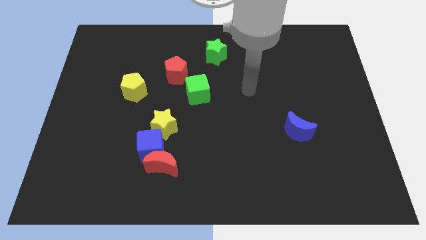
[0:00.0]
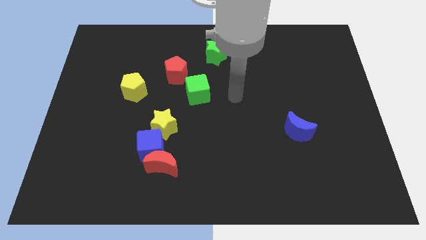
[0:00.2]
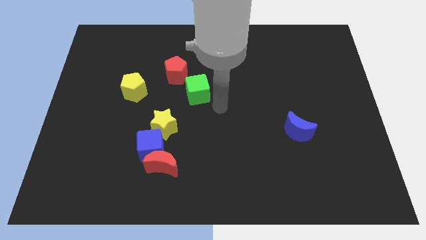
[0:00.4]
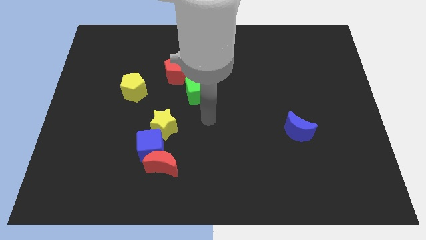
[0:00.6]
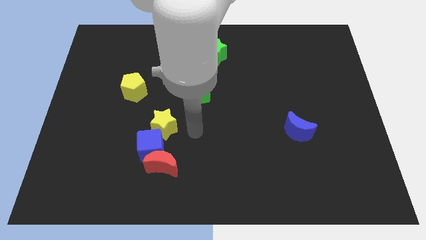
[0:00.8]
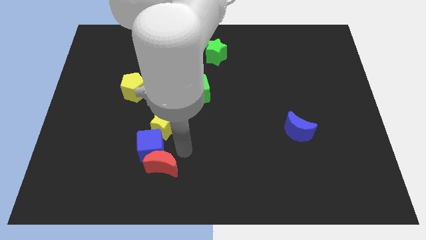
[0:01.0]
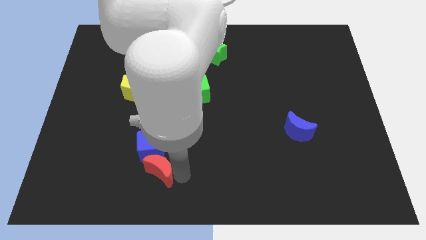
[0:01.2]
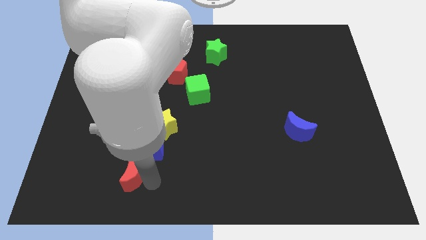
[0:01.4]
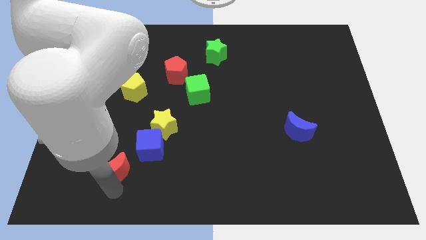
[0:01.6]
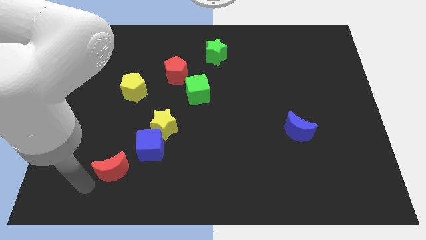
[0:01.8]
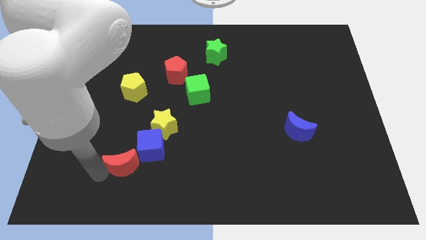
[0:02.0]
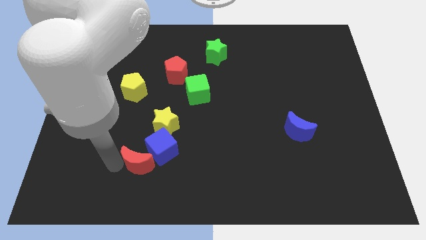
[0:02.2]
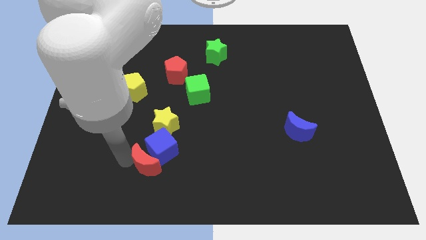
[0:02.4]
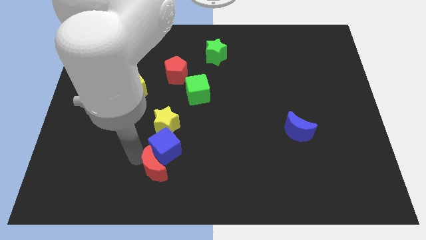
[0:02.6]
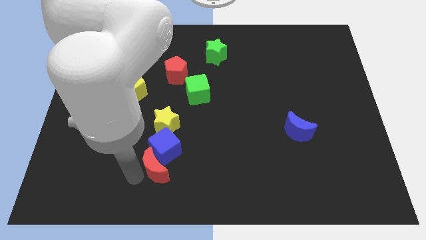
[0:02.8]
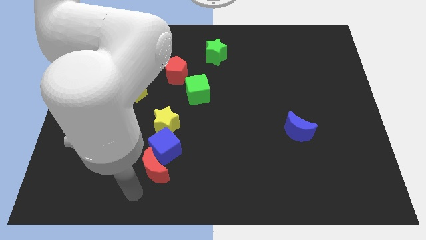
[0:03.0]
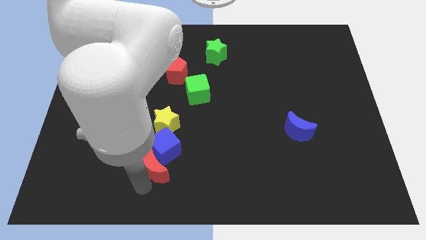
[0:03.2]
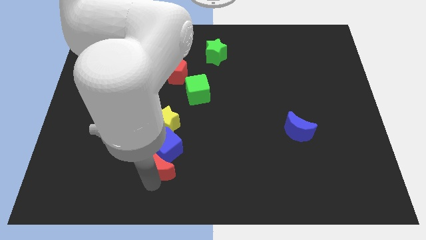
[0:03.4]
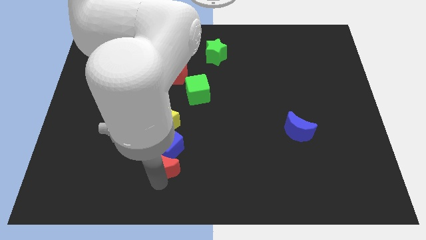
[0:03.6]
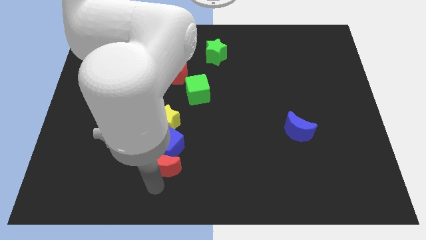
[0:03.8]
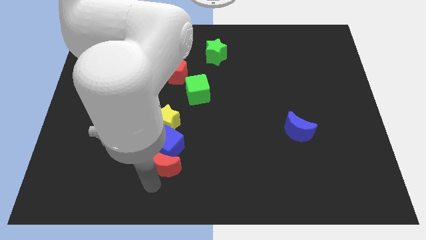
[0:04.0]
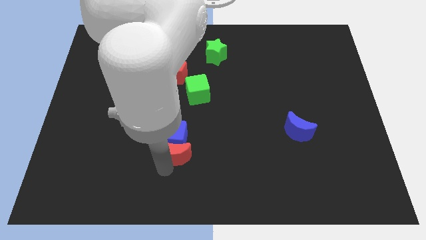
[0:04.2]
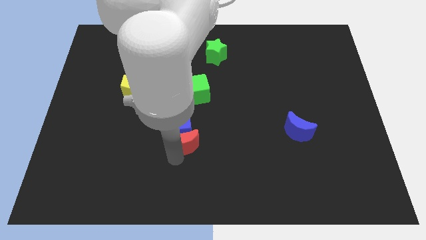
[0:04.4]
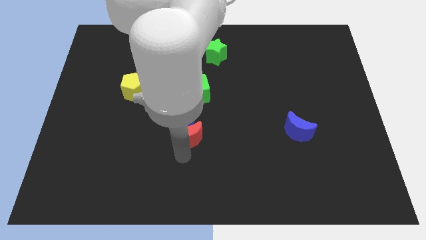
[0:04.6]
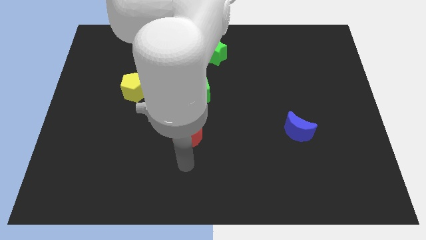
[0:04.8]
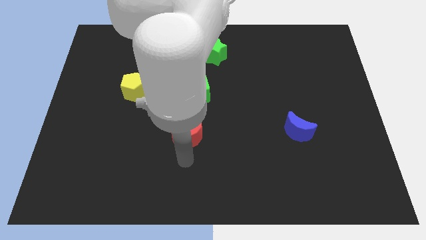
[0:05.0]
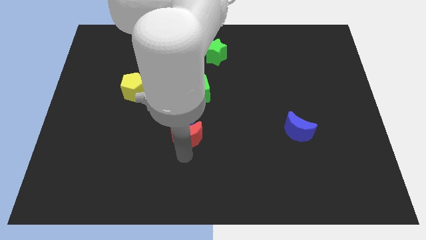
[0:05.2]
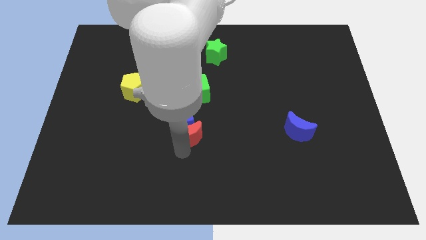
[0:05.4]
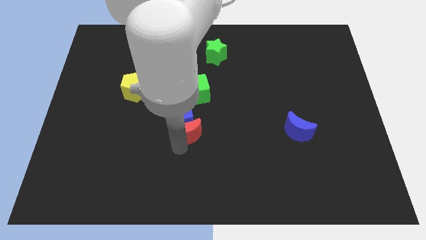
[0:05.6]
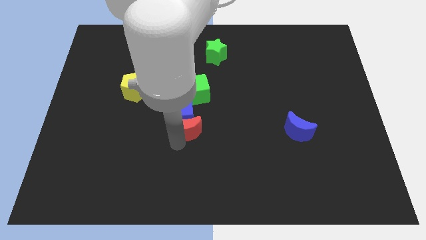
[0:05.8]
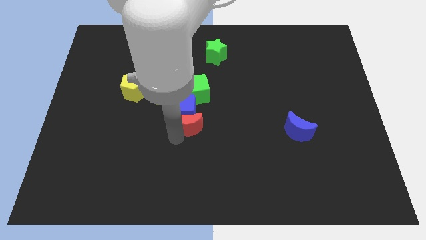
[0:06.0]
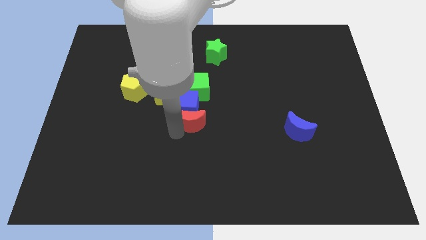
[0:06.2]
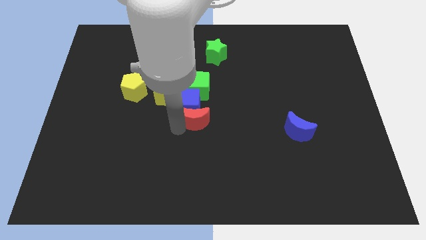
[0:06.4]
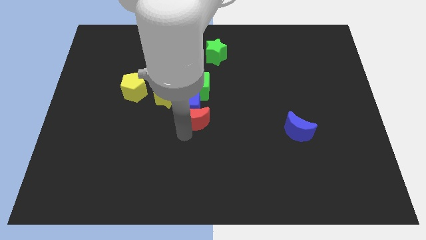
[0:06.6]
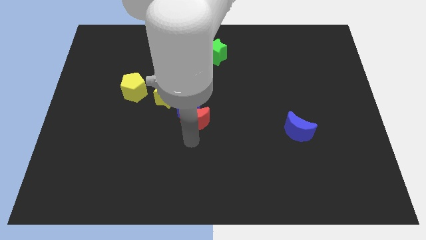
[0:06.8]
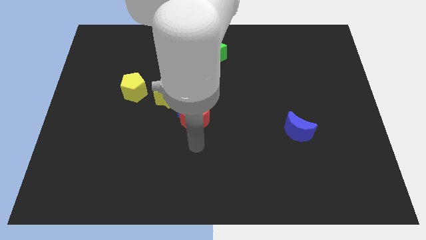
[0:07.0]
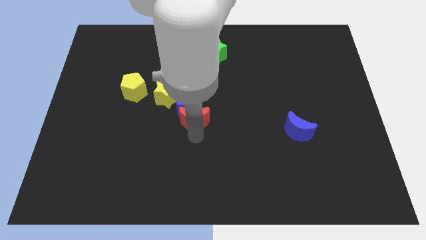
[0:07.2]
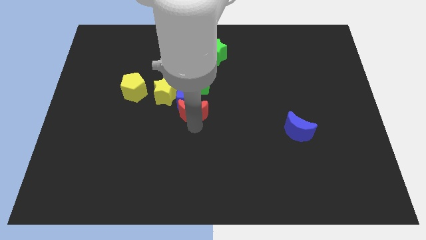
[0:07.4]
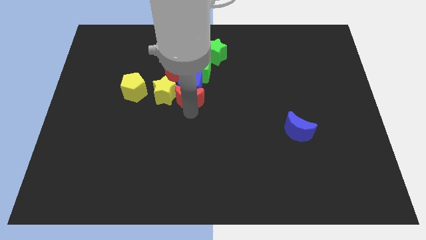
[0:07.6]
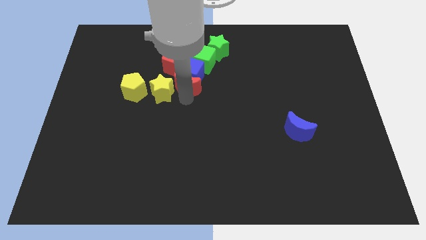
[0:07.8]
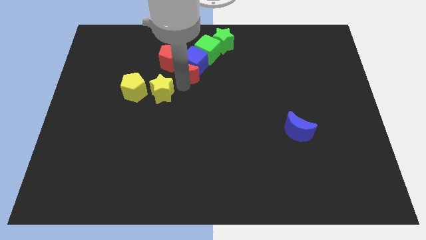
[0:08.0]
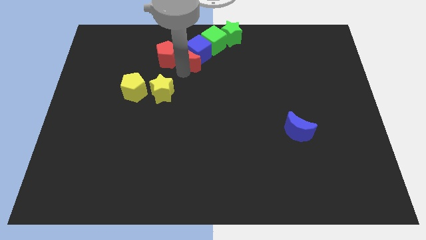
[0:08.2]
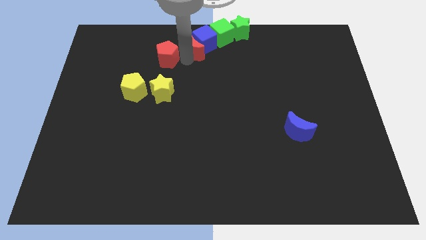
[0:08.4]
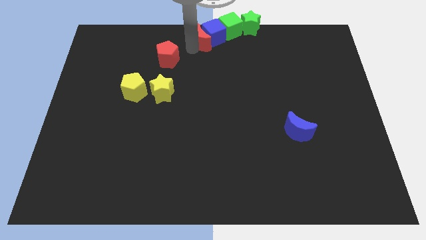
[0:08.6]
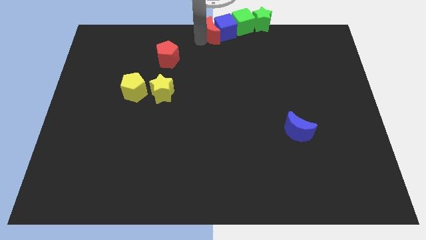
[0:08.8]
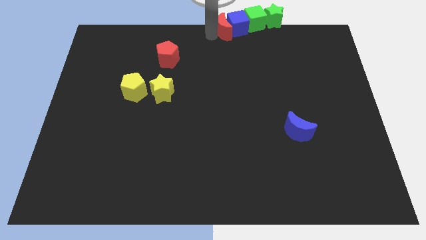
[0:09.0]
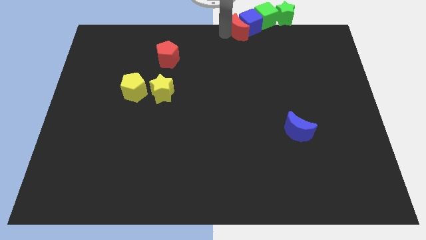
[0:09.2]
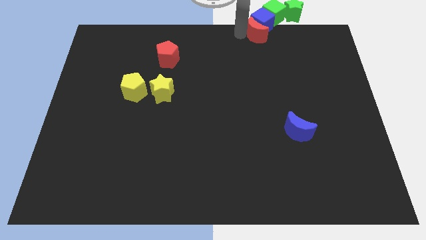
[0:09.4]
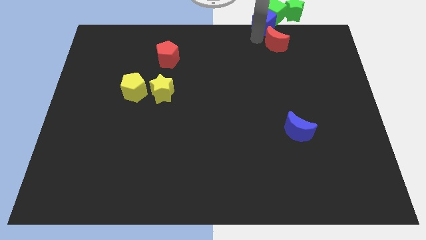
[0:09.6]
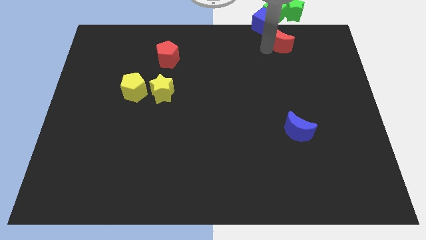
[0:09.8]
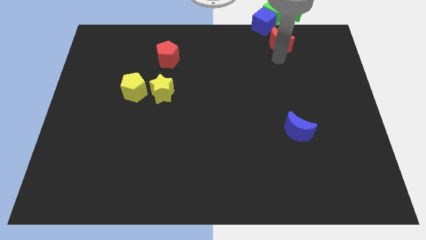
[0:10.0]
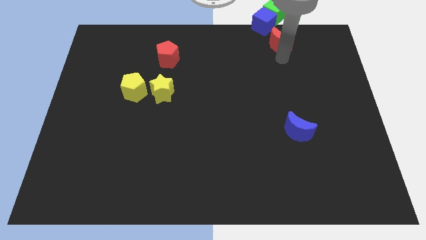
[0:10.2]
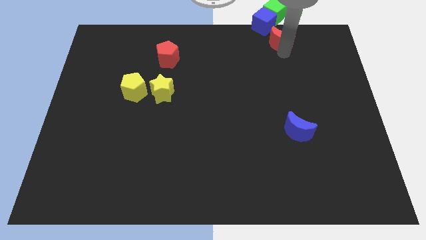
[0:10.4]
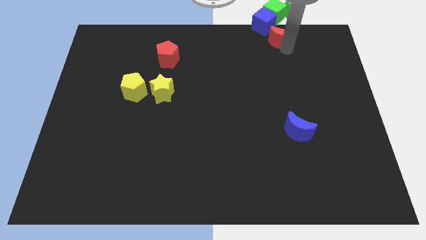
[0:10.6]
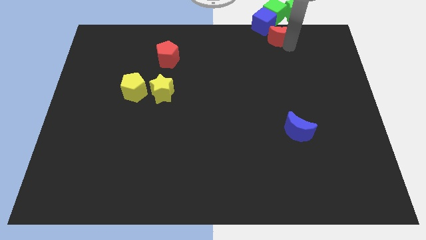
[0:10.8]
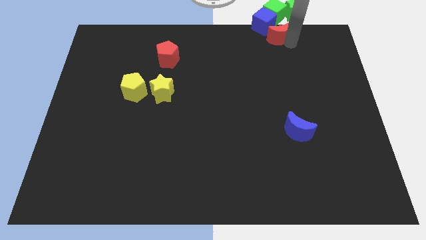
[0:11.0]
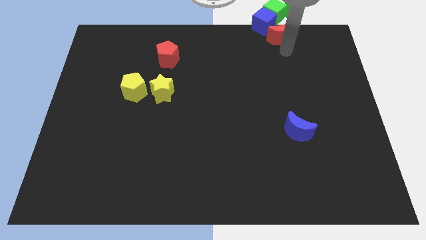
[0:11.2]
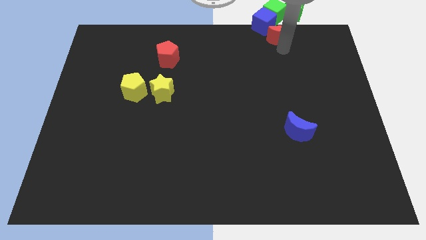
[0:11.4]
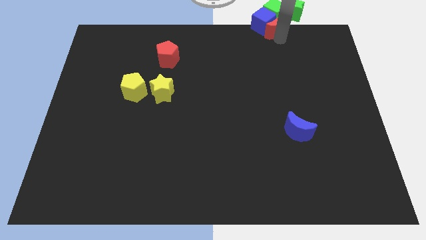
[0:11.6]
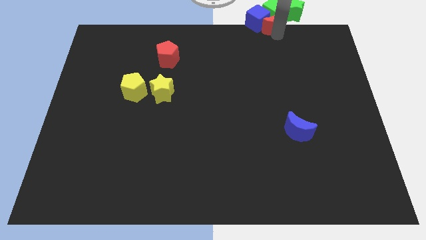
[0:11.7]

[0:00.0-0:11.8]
put the red moon towards the green cube

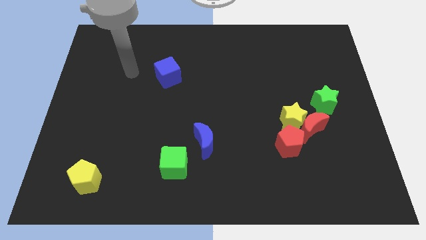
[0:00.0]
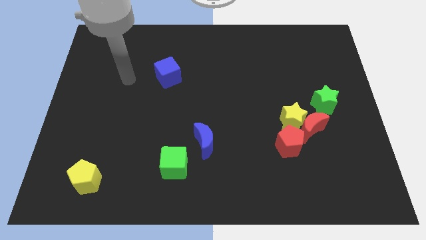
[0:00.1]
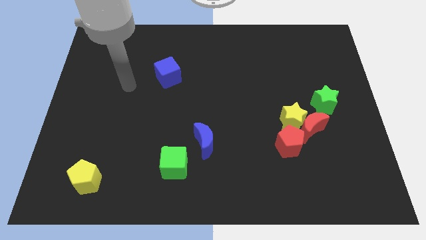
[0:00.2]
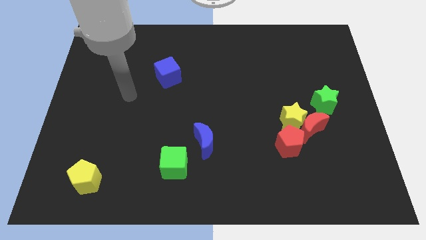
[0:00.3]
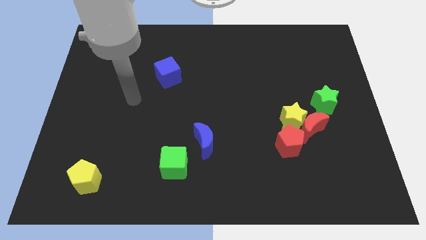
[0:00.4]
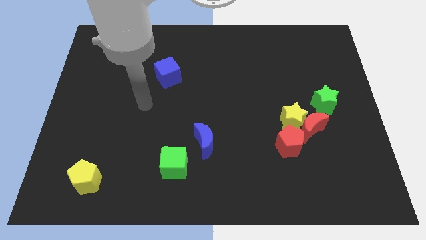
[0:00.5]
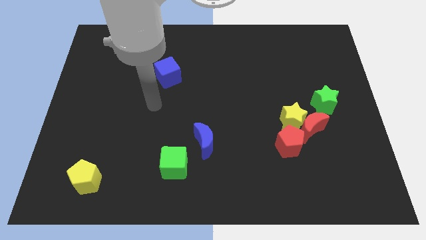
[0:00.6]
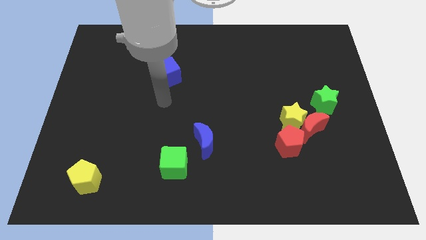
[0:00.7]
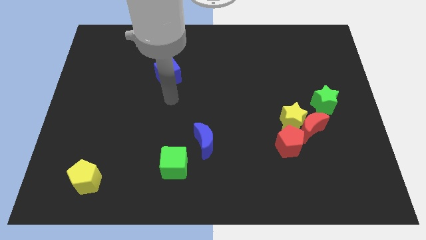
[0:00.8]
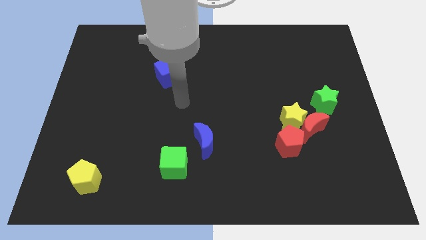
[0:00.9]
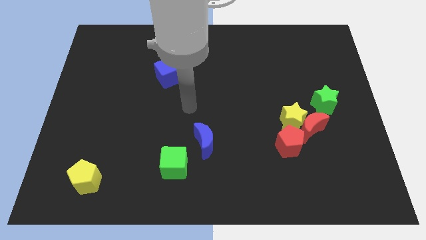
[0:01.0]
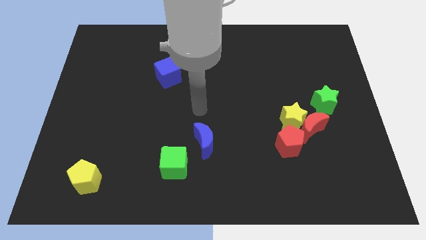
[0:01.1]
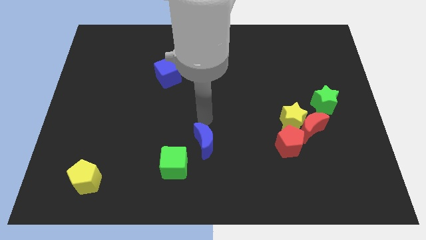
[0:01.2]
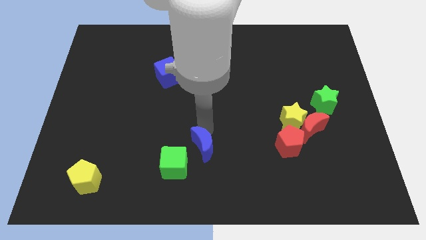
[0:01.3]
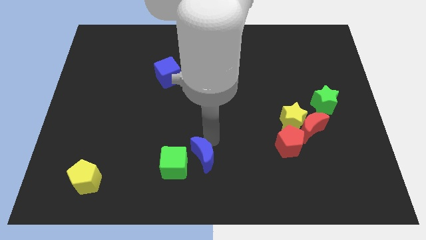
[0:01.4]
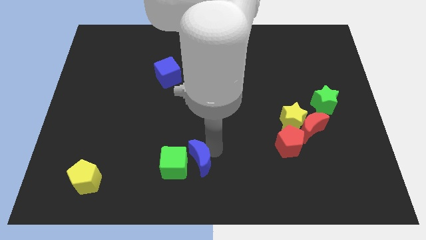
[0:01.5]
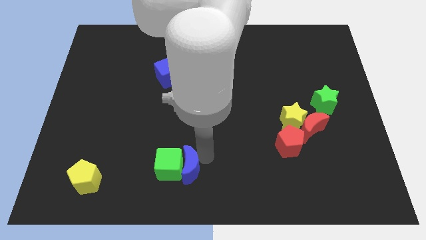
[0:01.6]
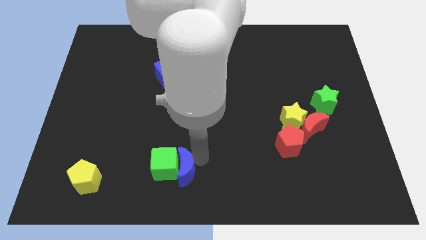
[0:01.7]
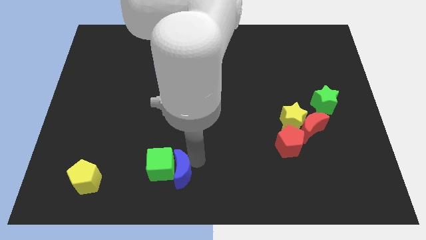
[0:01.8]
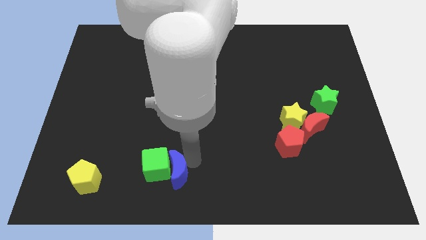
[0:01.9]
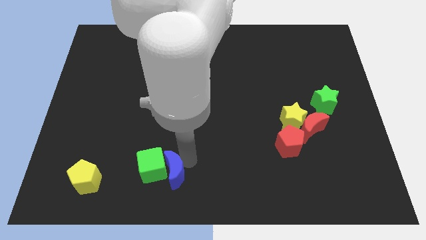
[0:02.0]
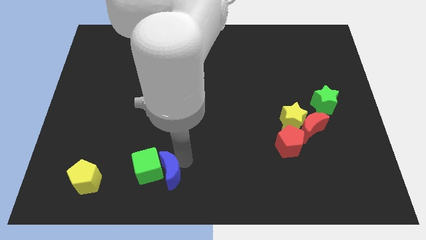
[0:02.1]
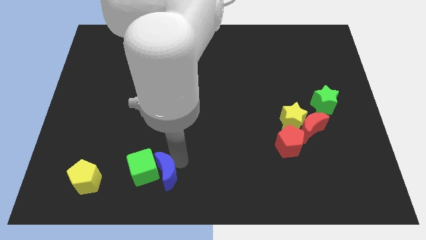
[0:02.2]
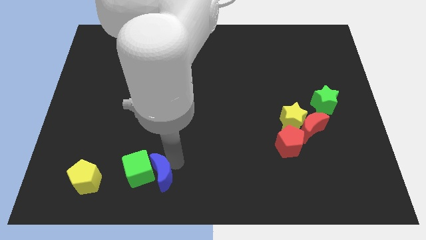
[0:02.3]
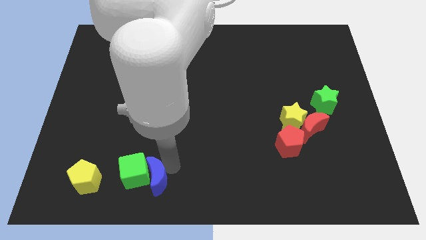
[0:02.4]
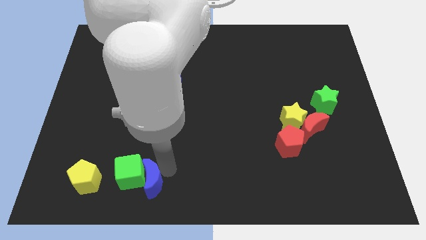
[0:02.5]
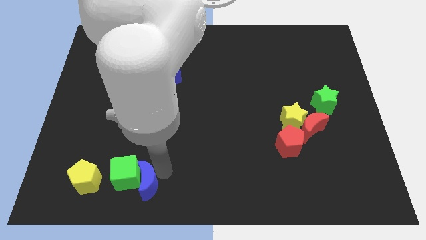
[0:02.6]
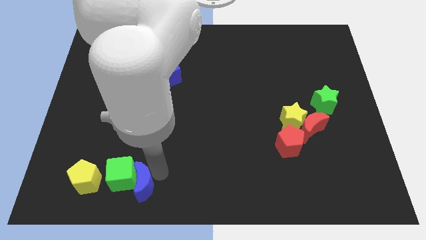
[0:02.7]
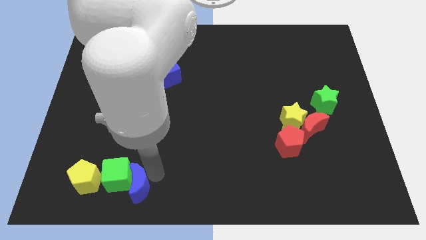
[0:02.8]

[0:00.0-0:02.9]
push the green cube close to the yellow pentagon
